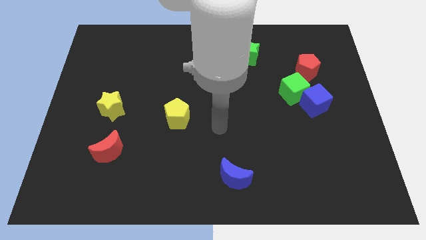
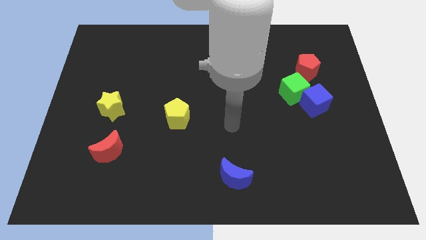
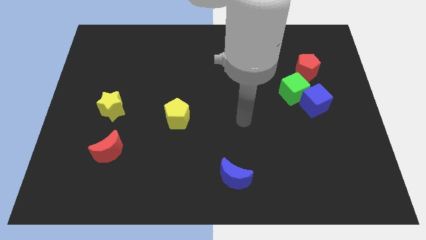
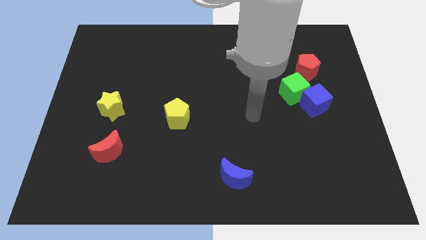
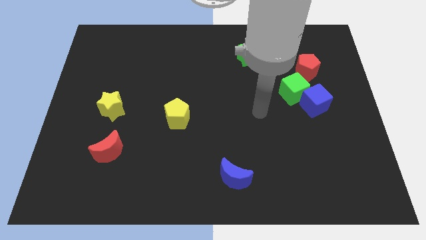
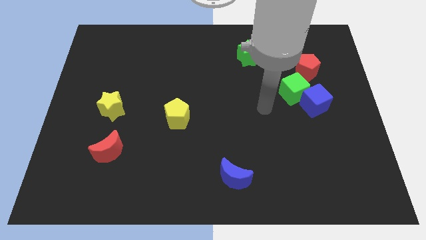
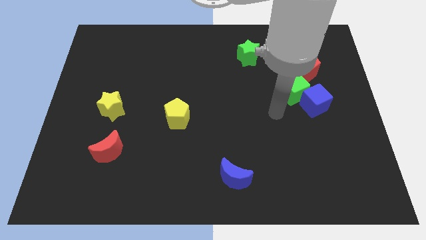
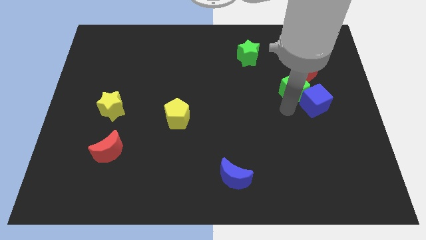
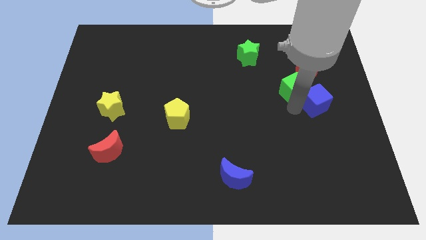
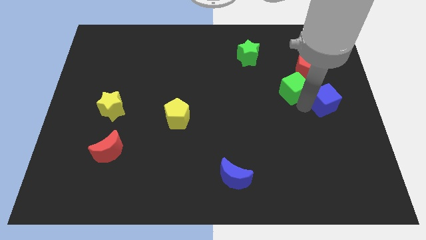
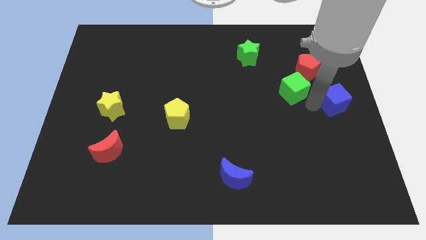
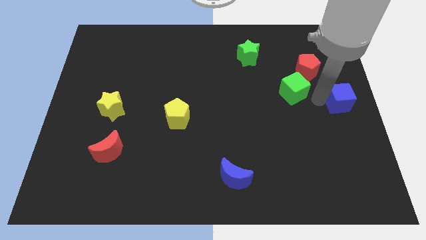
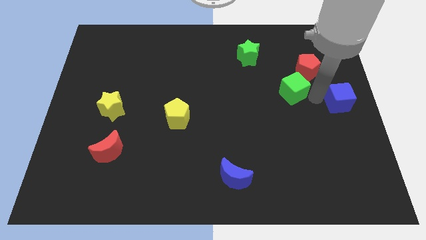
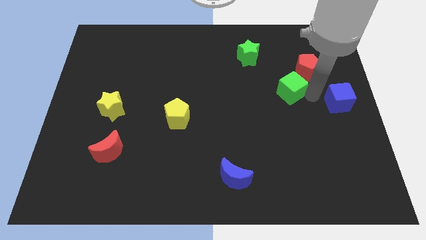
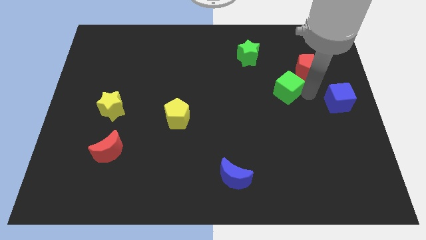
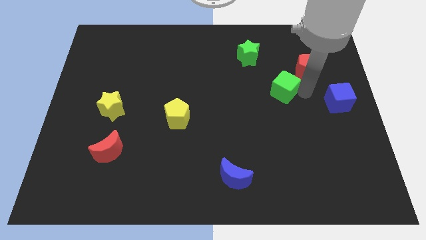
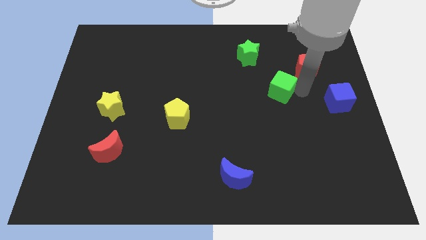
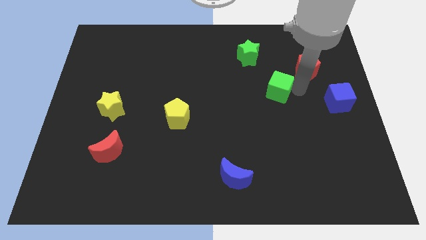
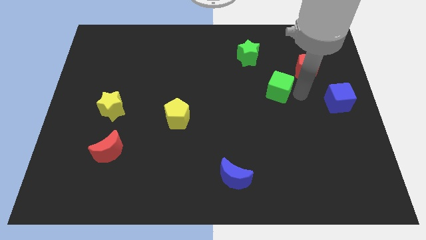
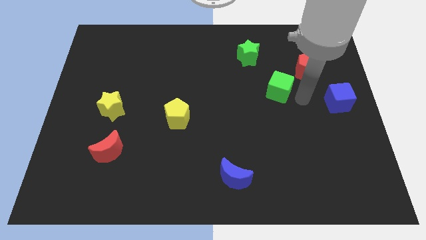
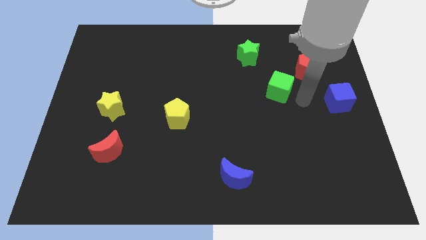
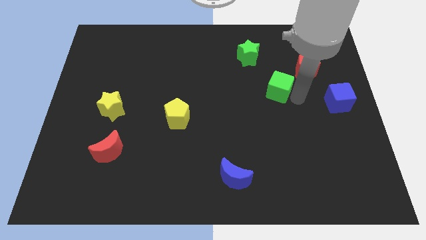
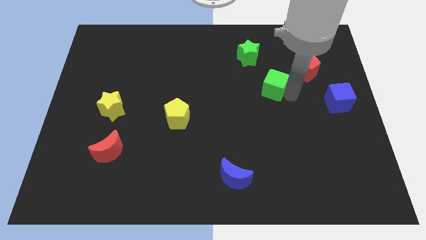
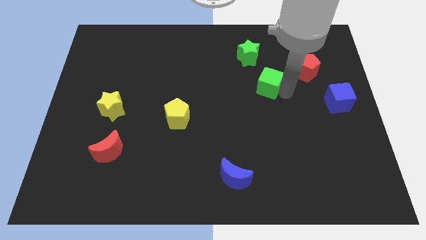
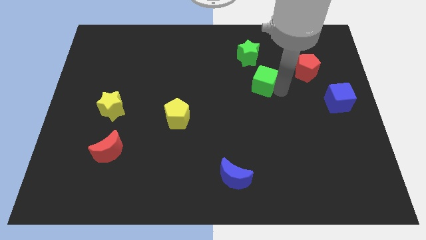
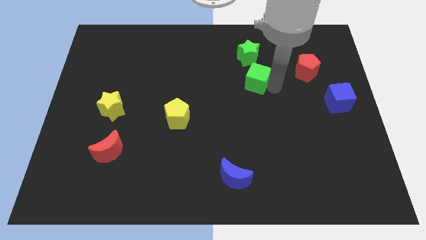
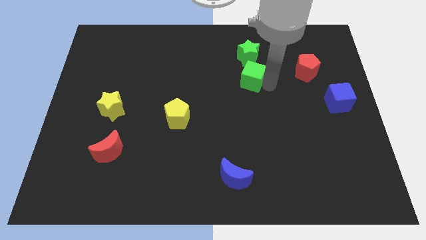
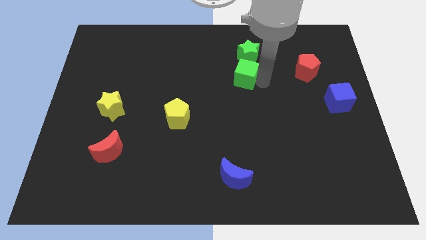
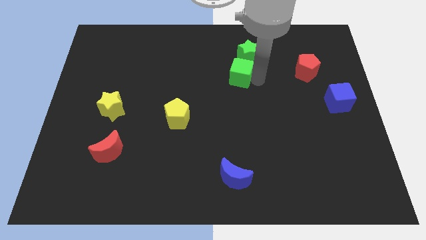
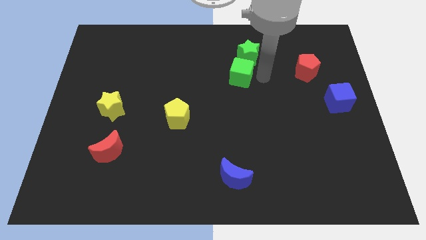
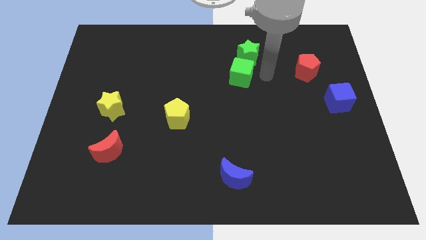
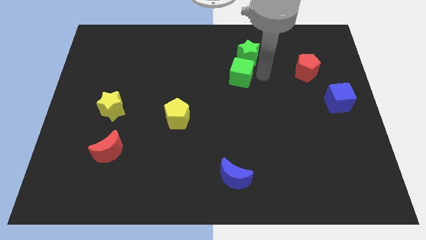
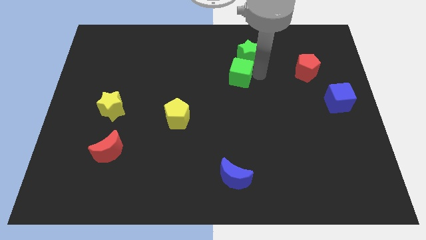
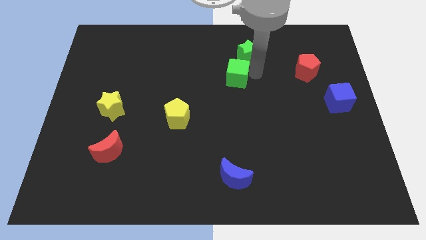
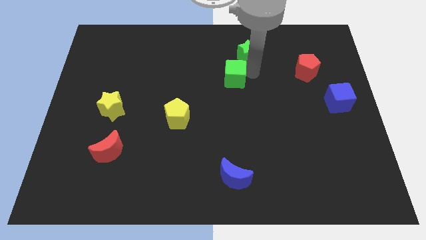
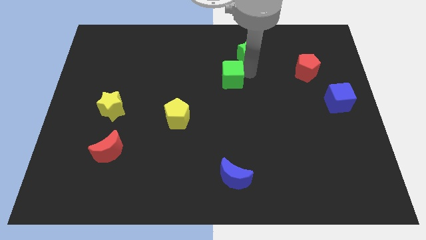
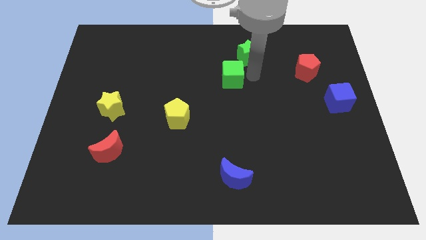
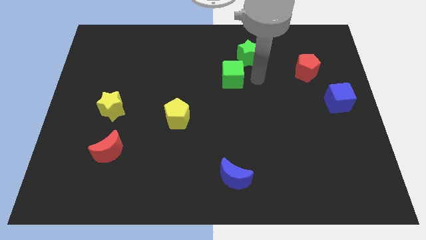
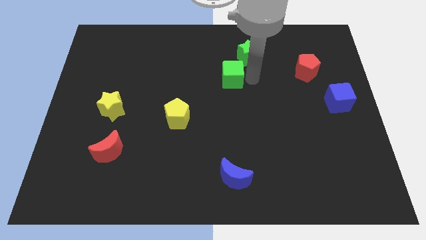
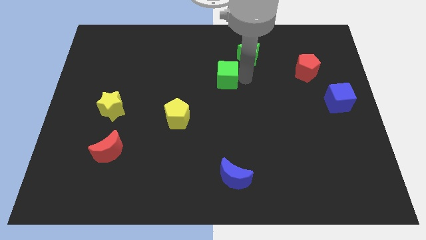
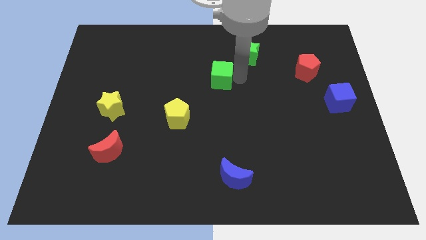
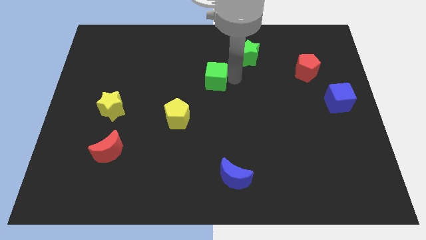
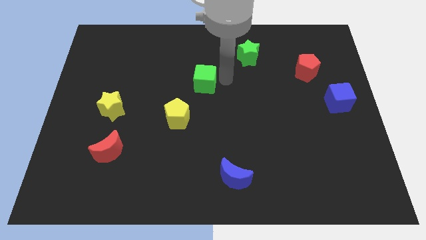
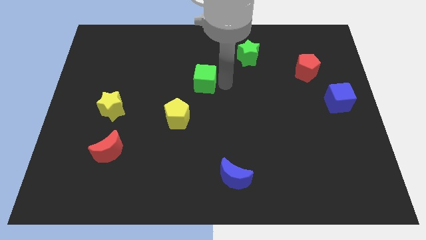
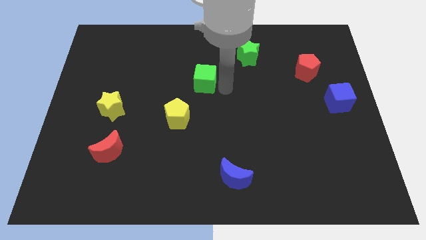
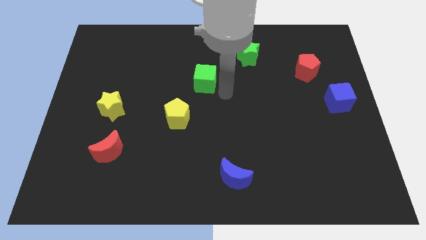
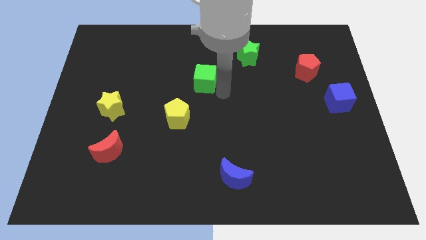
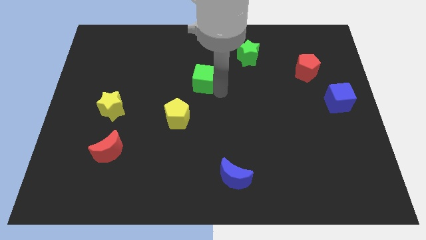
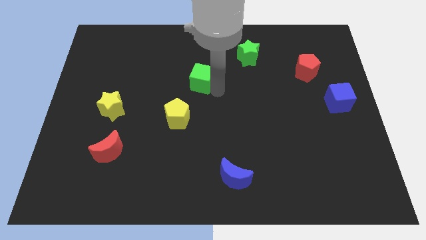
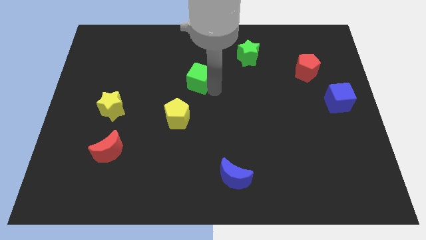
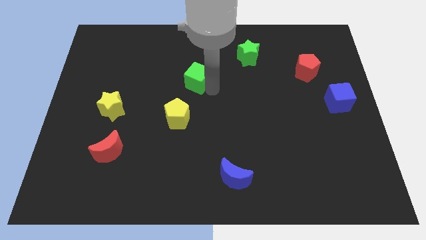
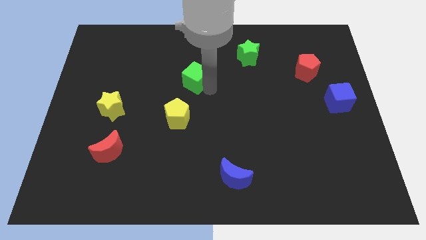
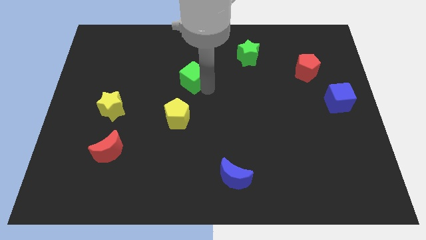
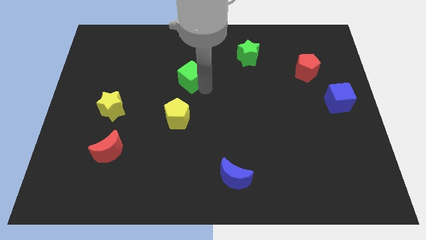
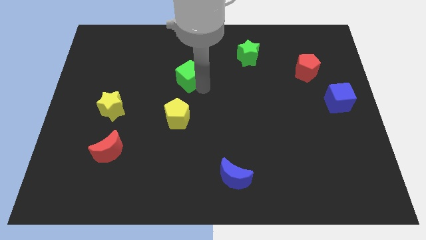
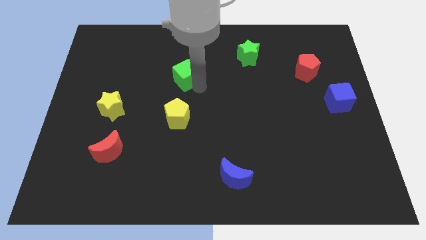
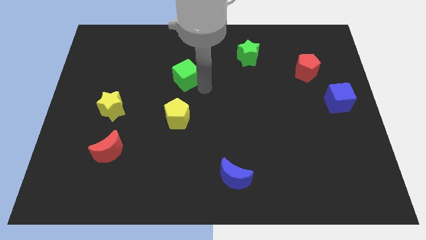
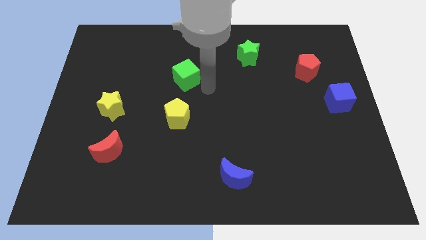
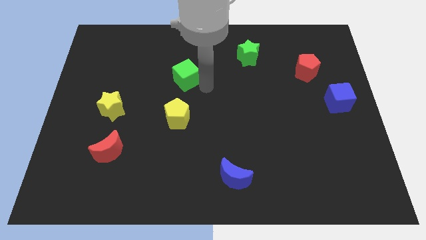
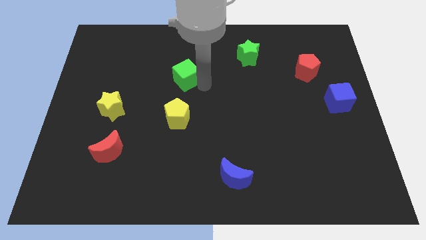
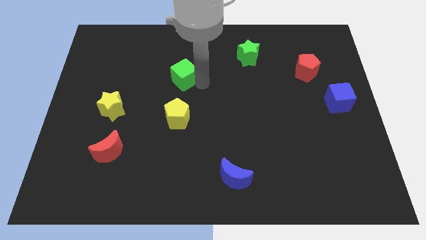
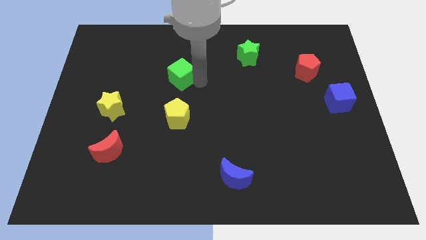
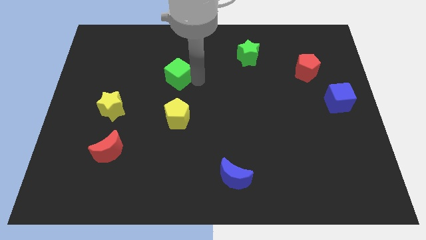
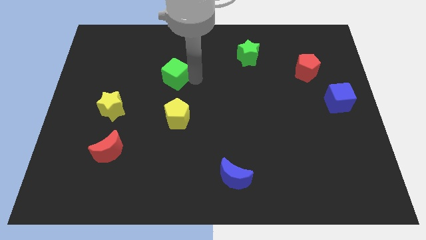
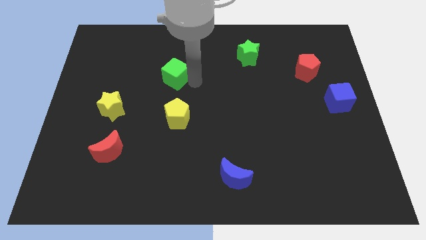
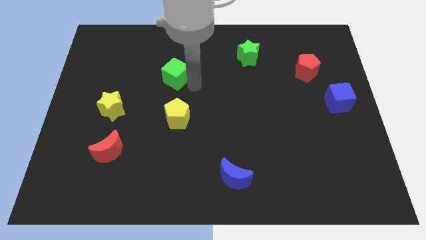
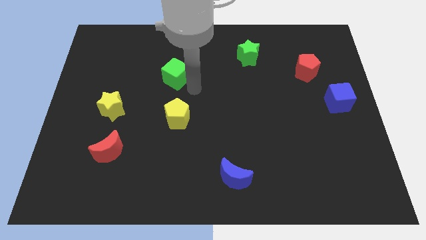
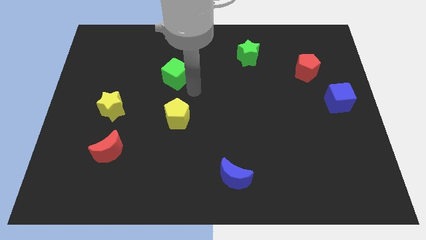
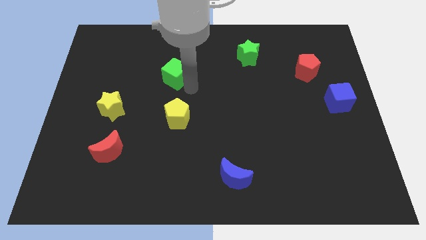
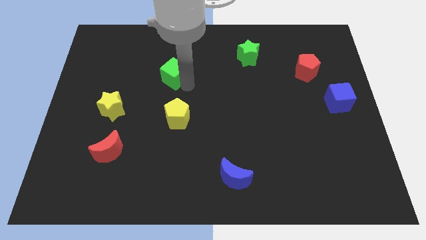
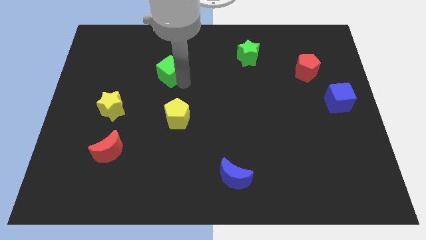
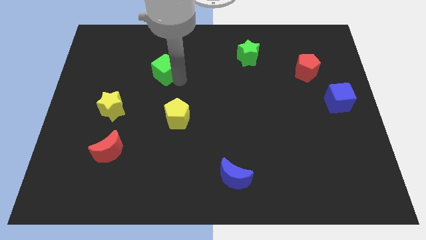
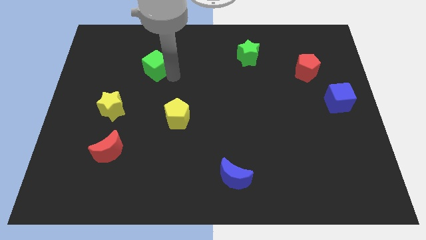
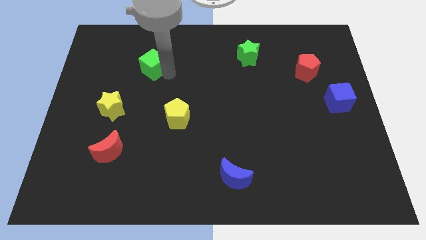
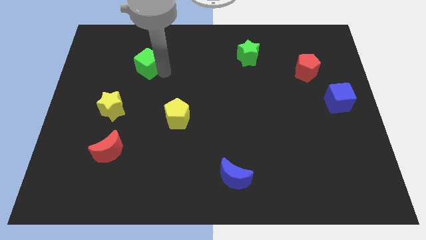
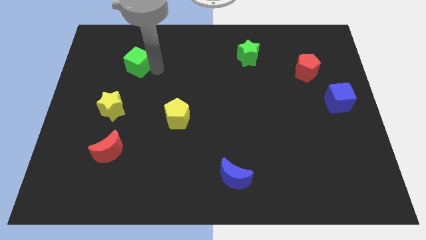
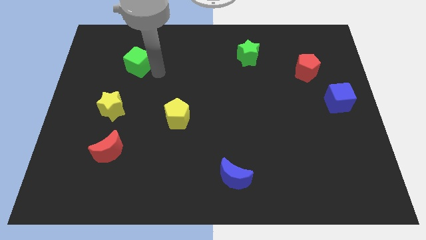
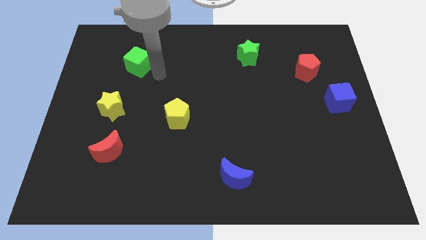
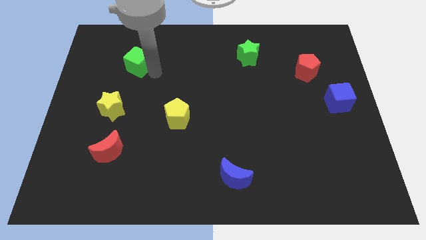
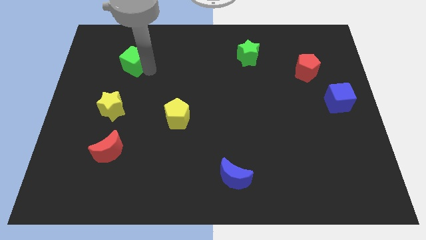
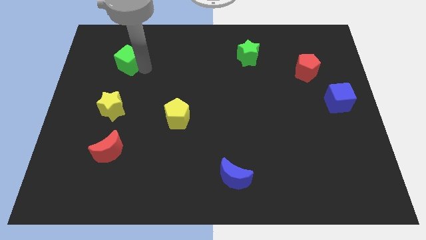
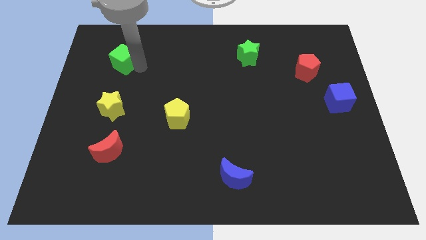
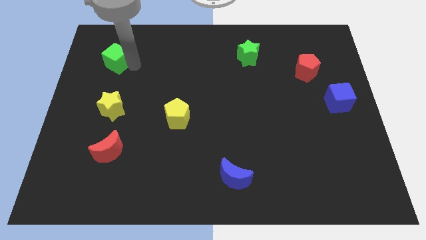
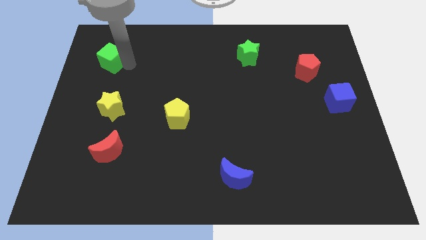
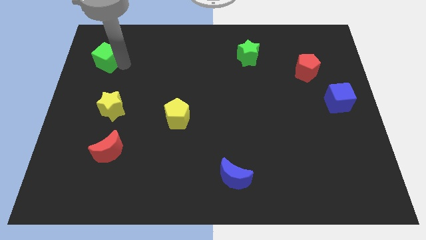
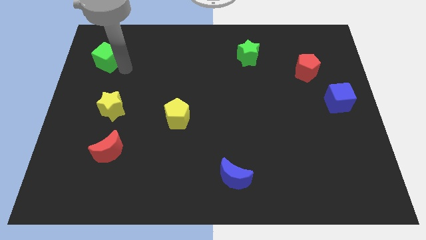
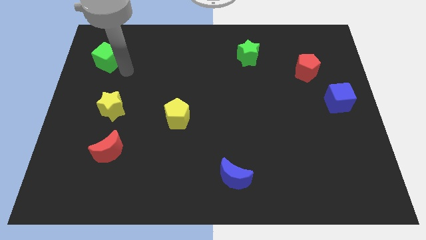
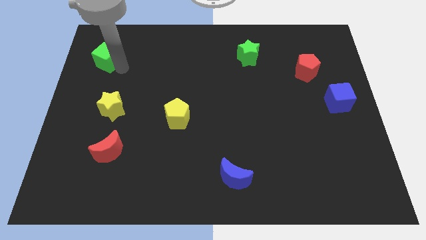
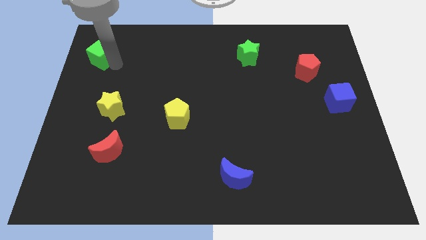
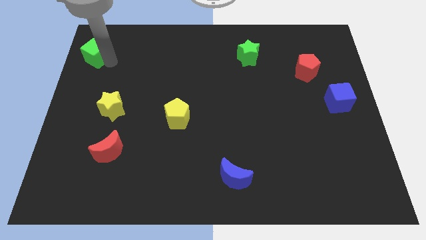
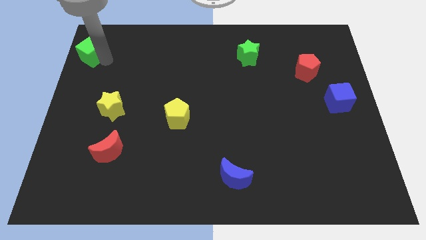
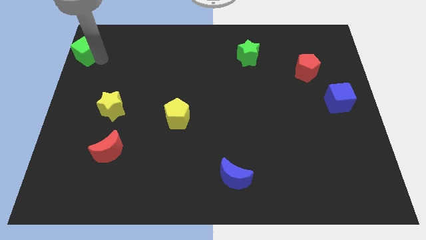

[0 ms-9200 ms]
push the green cube to the top left of the board
